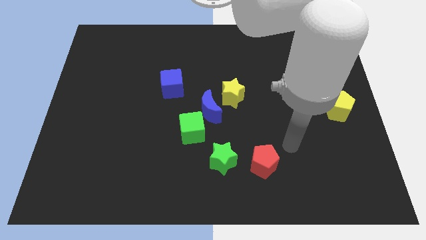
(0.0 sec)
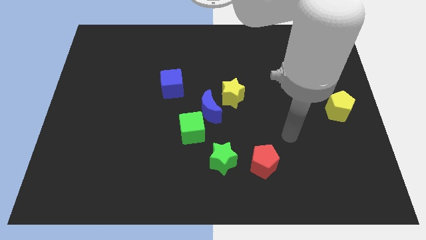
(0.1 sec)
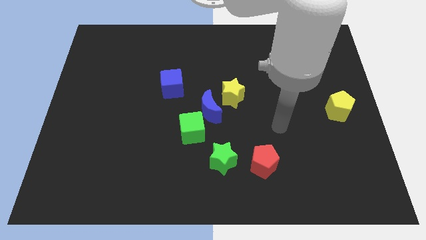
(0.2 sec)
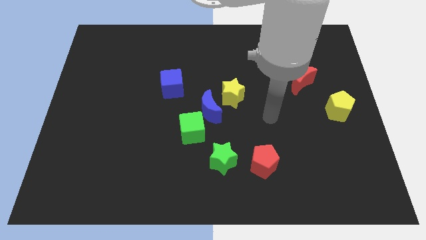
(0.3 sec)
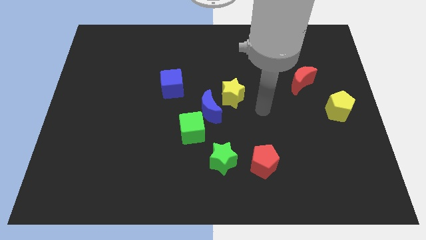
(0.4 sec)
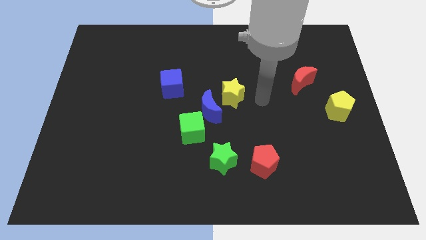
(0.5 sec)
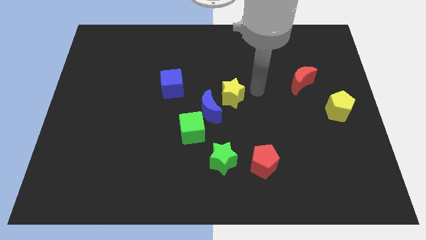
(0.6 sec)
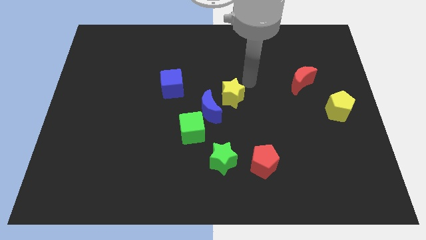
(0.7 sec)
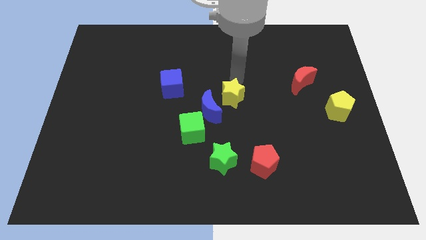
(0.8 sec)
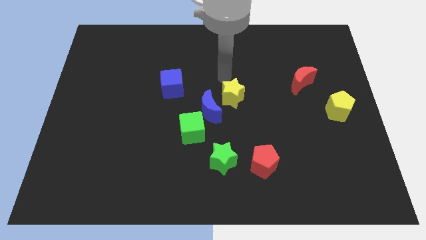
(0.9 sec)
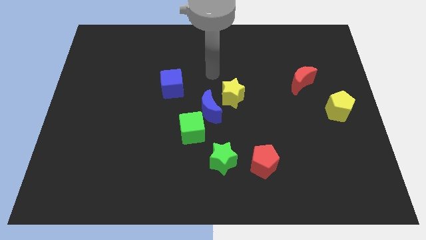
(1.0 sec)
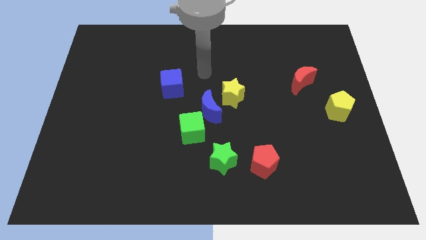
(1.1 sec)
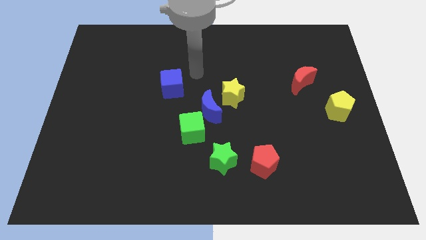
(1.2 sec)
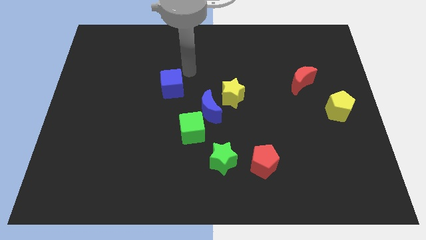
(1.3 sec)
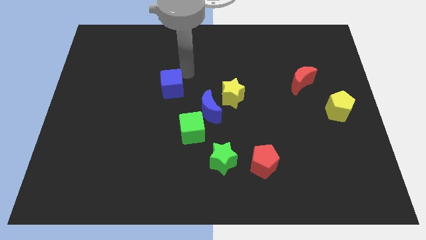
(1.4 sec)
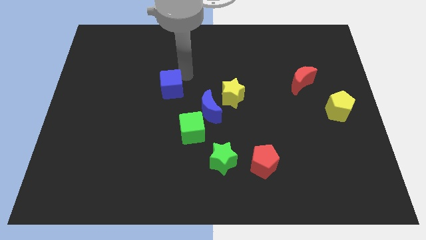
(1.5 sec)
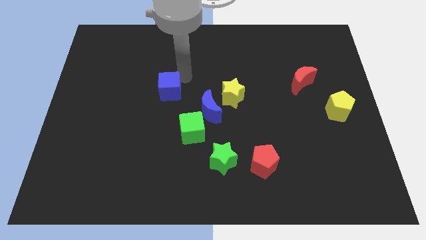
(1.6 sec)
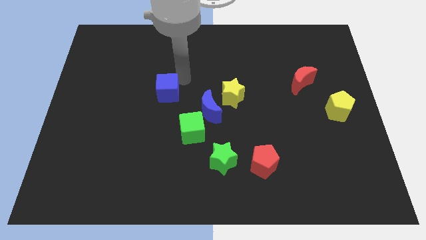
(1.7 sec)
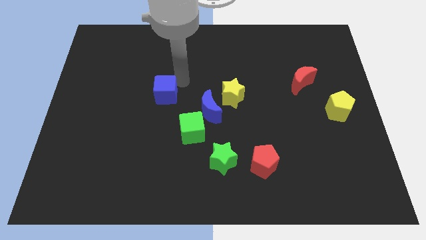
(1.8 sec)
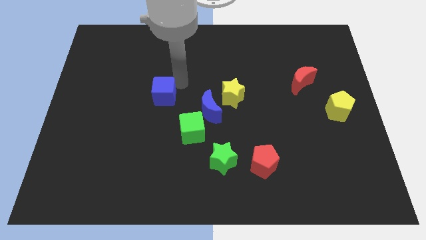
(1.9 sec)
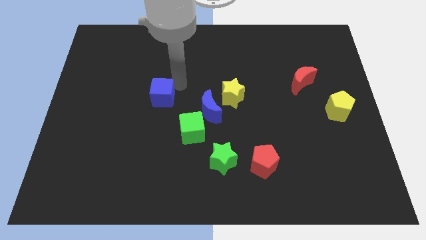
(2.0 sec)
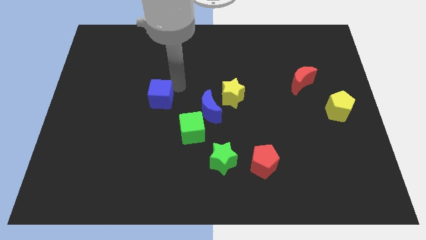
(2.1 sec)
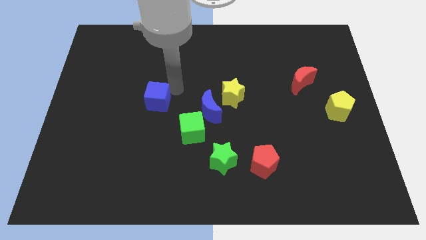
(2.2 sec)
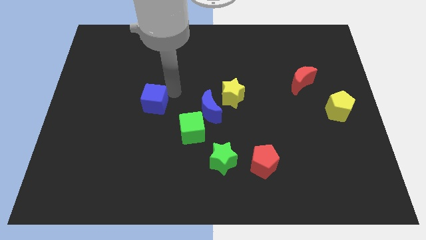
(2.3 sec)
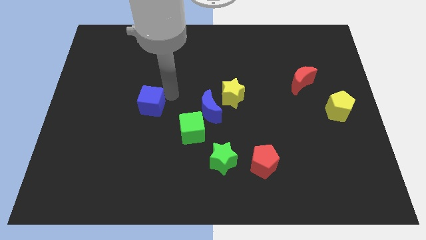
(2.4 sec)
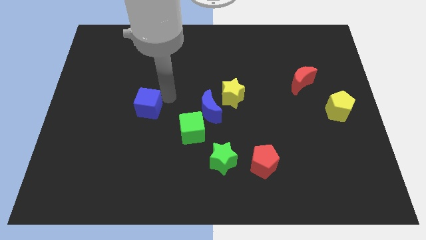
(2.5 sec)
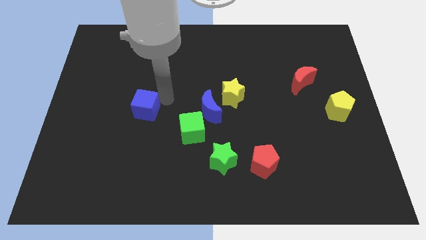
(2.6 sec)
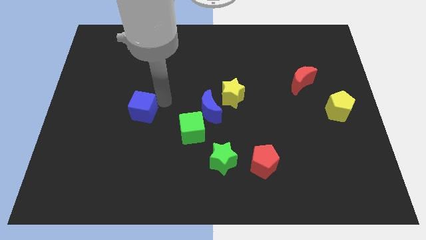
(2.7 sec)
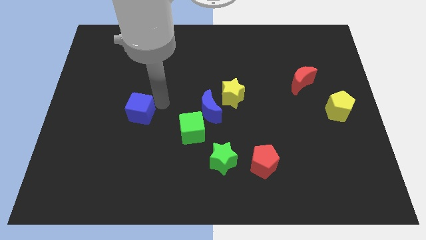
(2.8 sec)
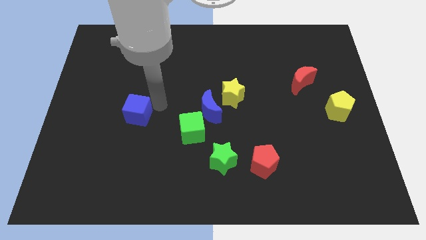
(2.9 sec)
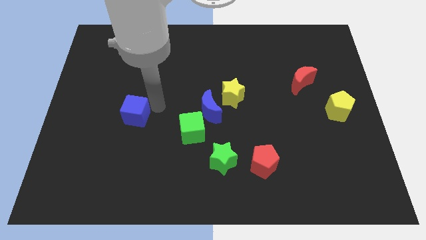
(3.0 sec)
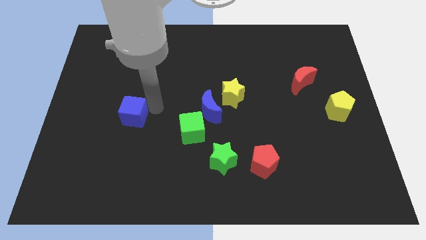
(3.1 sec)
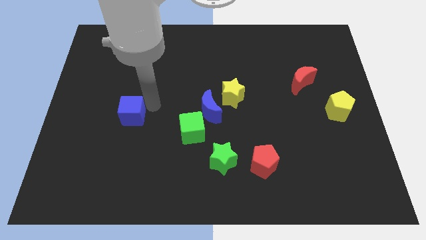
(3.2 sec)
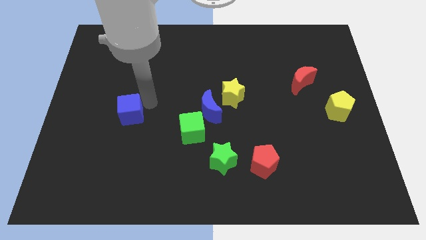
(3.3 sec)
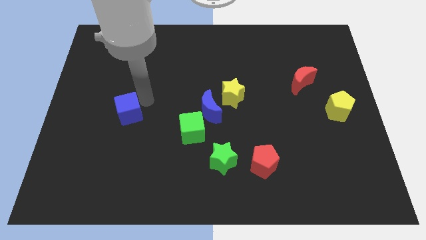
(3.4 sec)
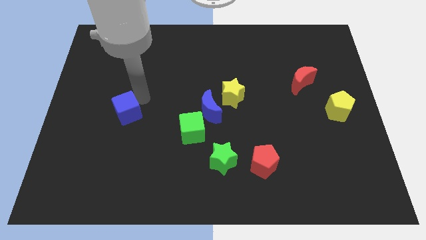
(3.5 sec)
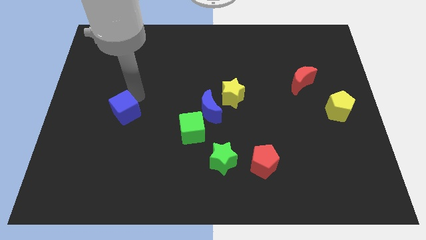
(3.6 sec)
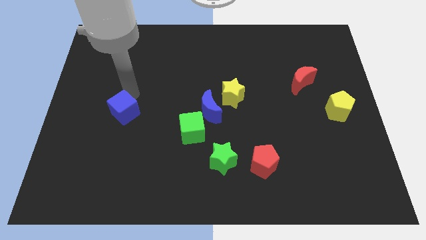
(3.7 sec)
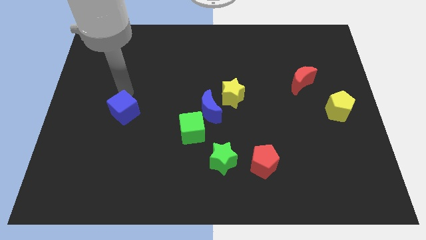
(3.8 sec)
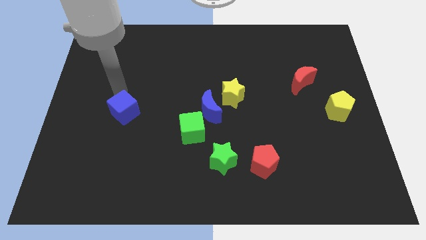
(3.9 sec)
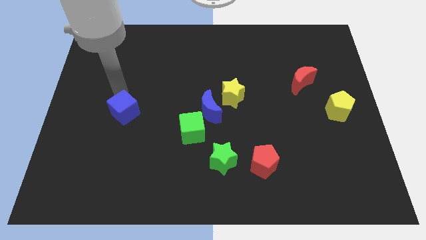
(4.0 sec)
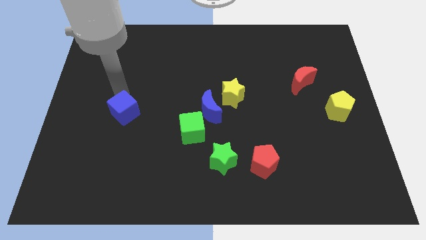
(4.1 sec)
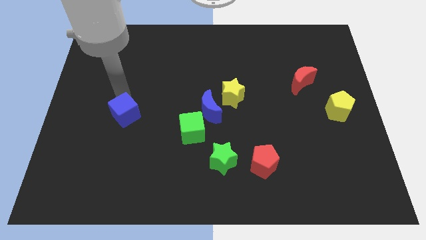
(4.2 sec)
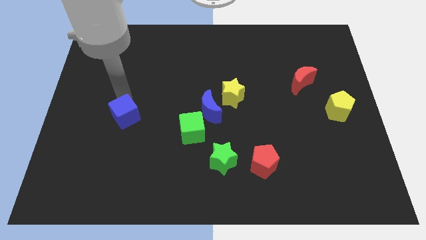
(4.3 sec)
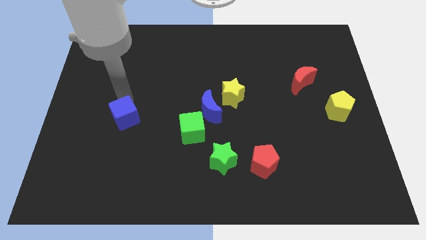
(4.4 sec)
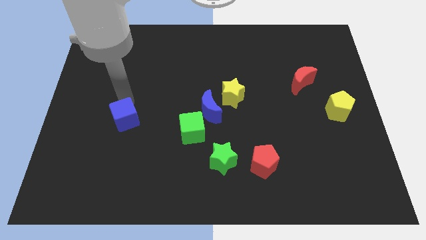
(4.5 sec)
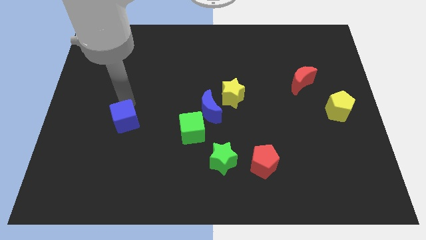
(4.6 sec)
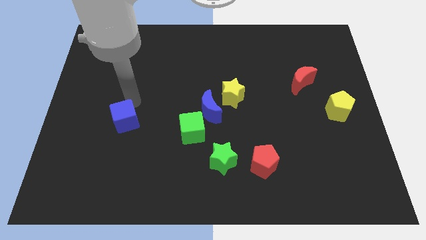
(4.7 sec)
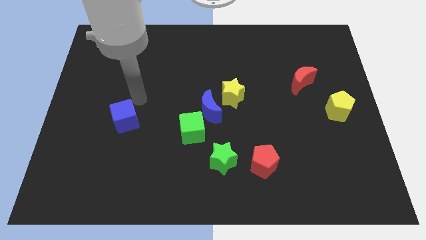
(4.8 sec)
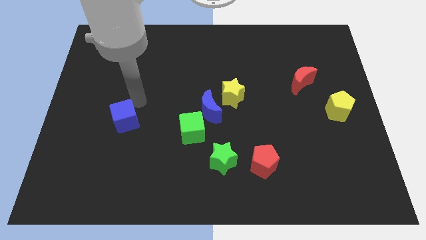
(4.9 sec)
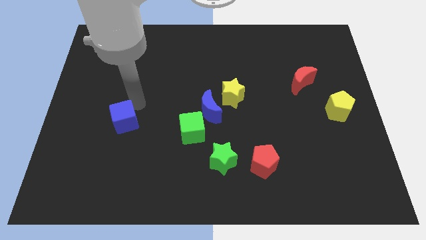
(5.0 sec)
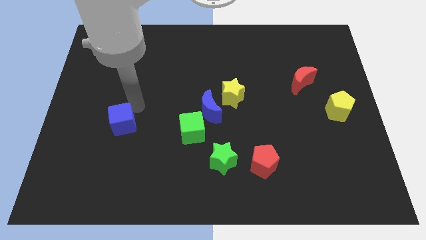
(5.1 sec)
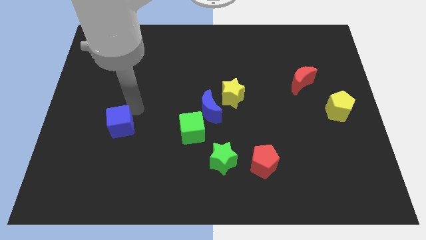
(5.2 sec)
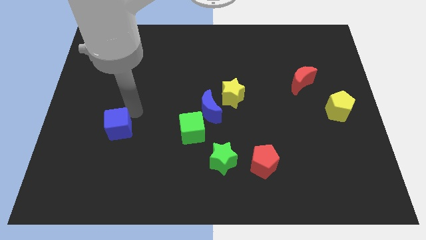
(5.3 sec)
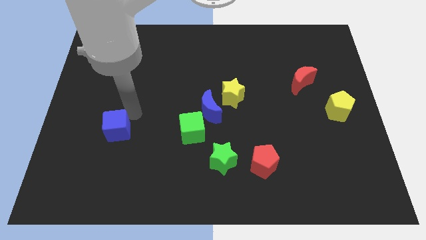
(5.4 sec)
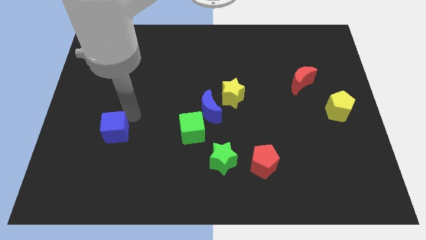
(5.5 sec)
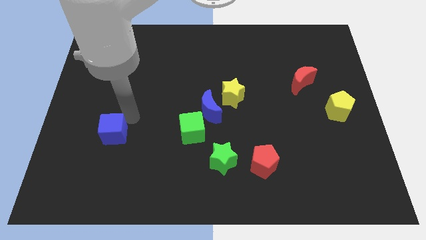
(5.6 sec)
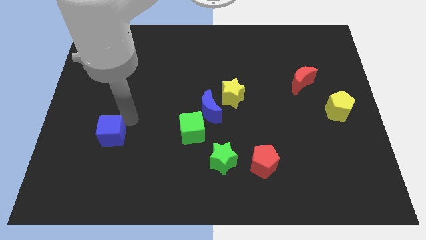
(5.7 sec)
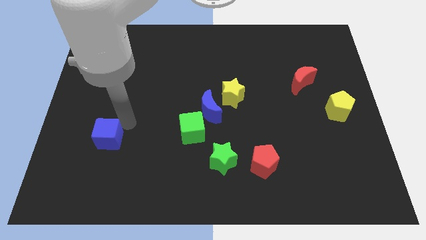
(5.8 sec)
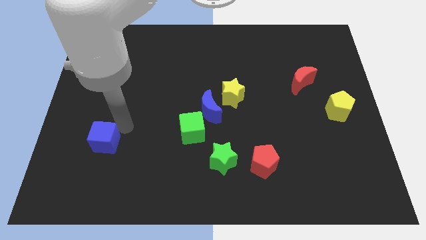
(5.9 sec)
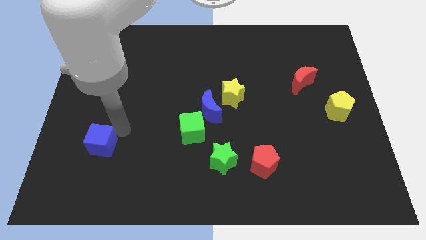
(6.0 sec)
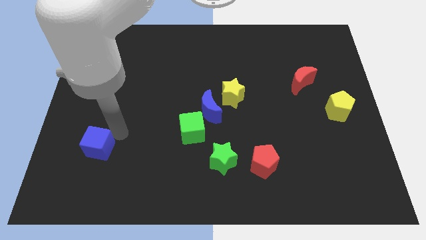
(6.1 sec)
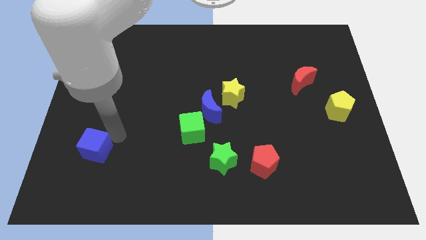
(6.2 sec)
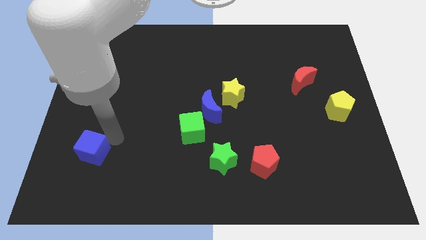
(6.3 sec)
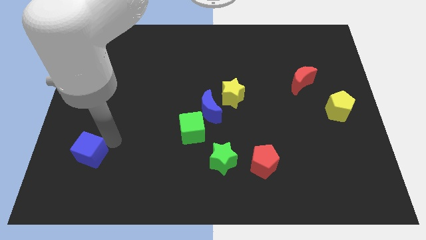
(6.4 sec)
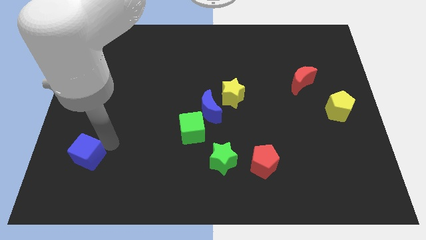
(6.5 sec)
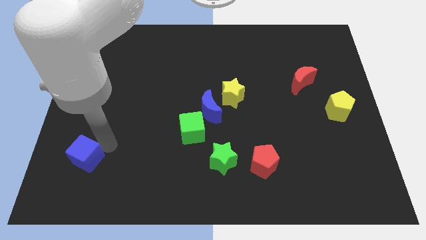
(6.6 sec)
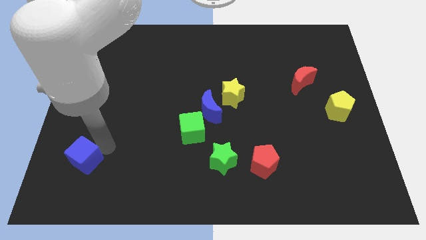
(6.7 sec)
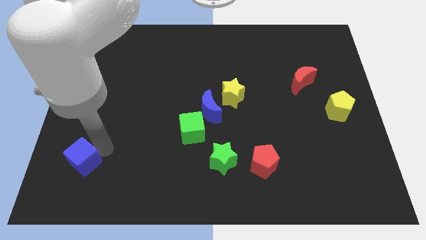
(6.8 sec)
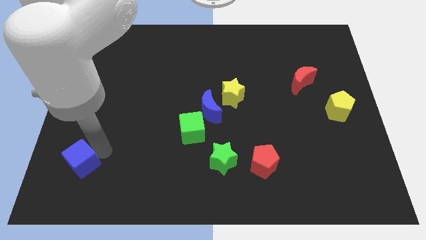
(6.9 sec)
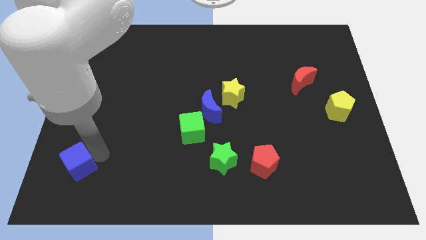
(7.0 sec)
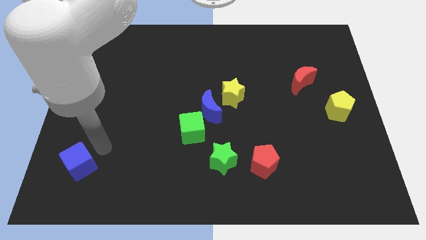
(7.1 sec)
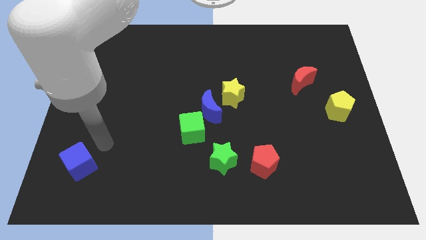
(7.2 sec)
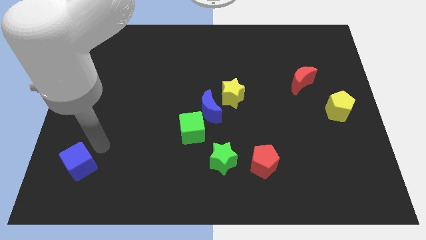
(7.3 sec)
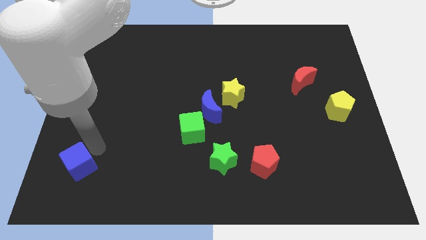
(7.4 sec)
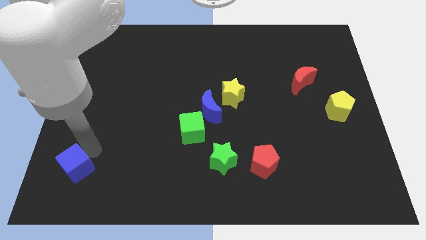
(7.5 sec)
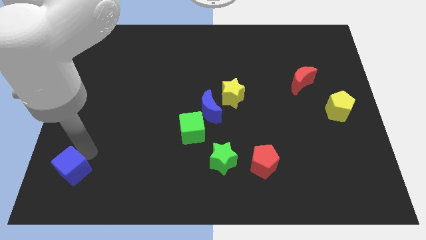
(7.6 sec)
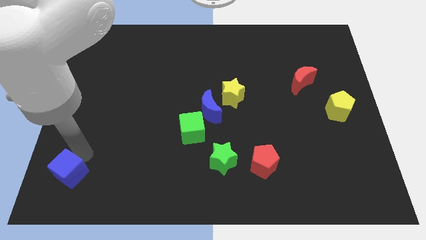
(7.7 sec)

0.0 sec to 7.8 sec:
put the blue cube to the bottom left
